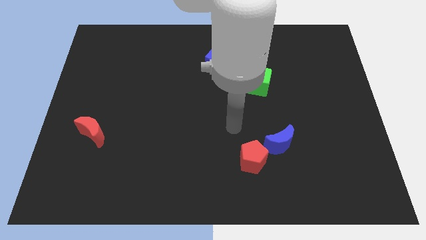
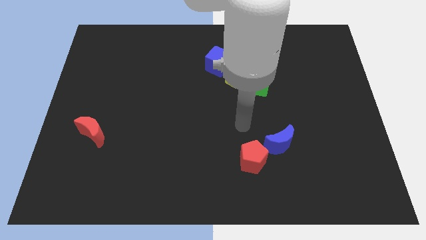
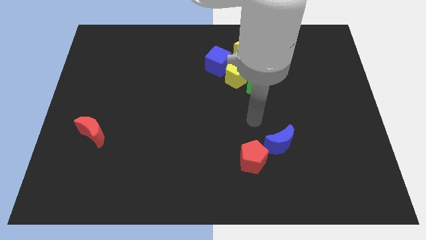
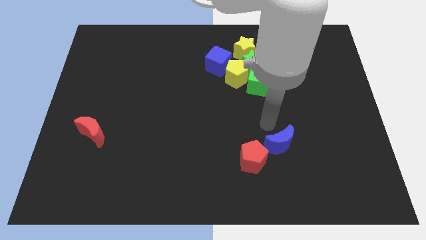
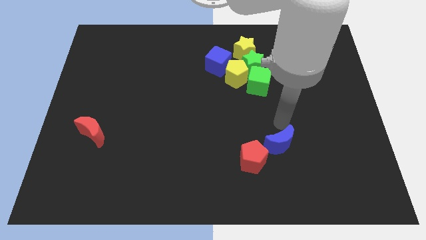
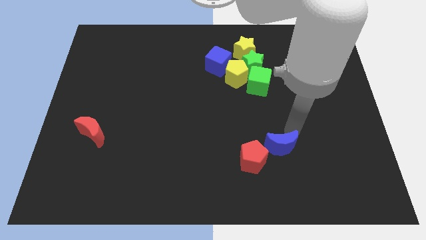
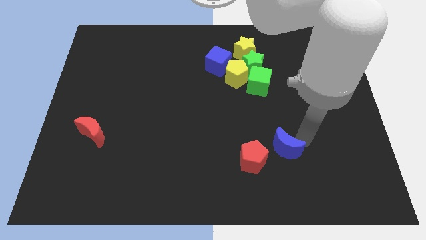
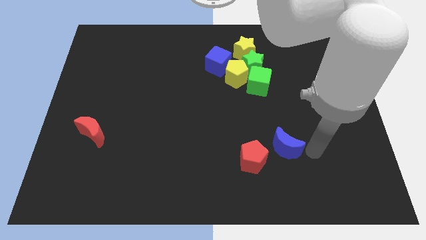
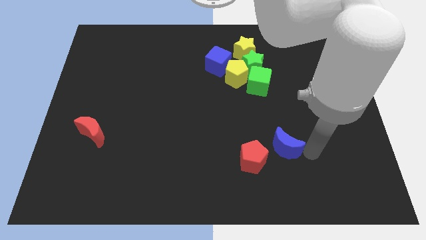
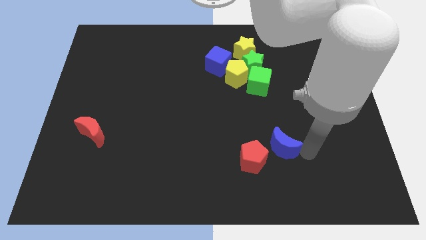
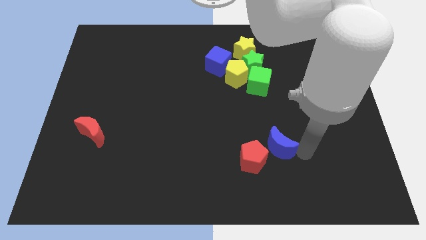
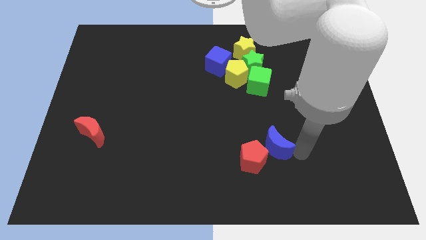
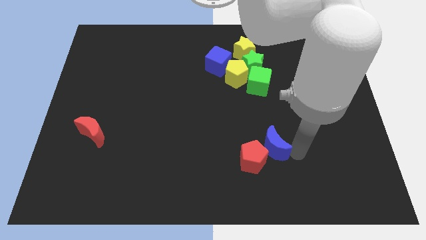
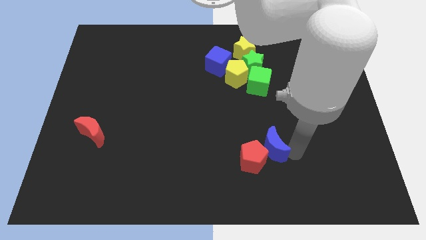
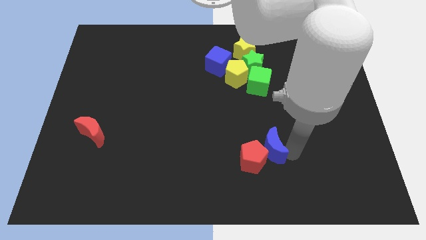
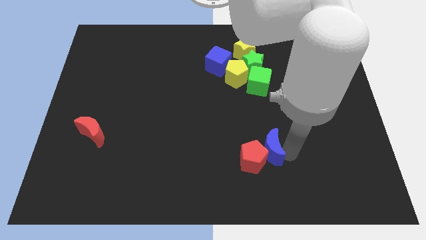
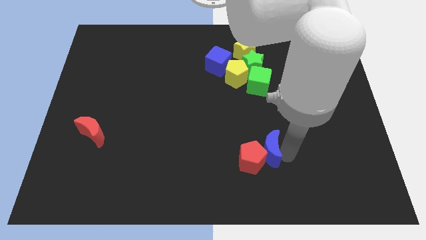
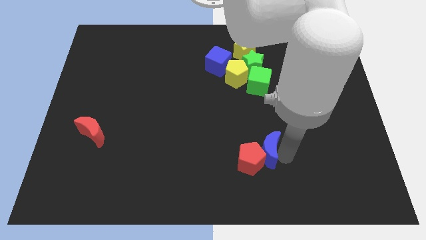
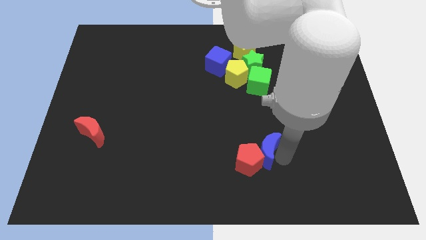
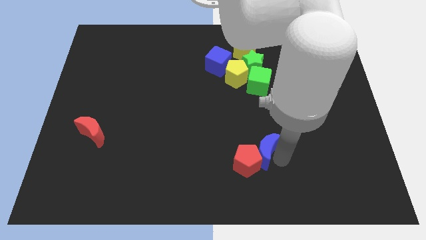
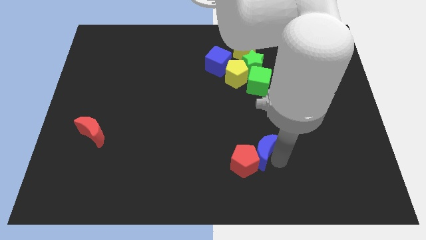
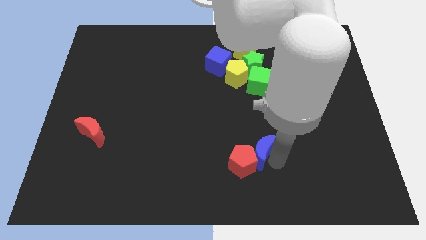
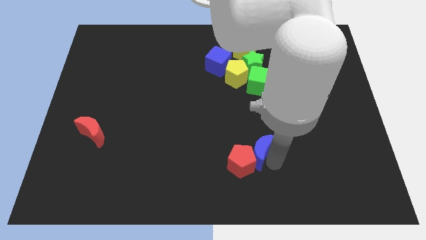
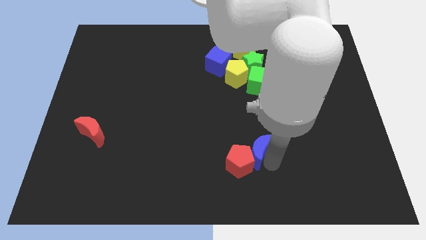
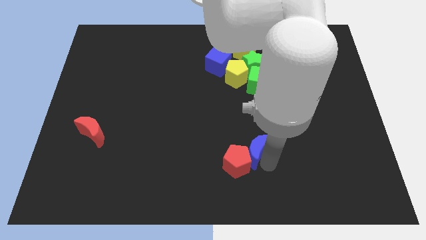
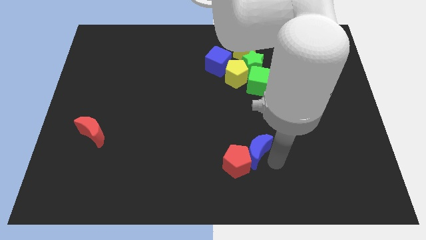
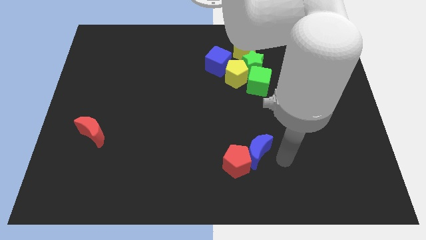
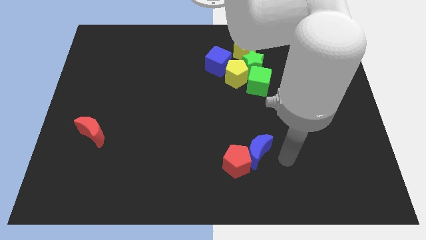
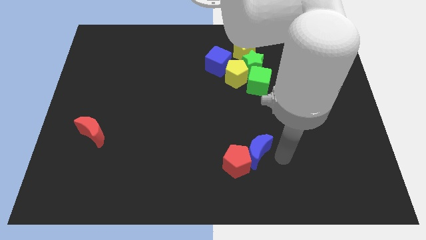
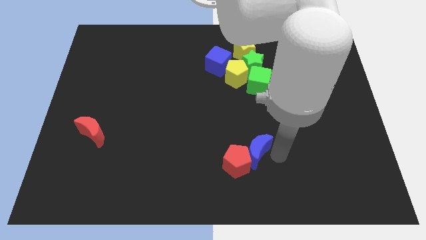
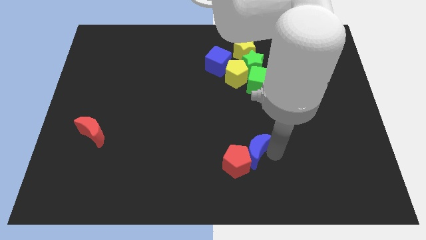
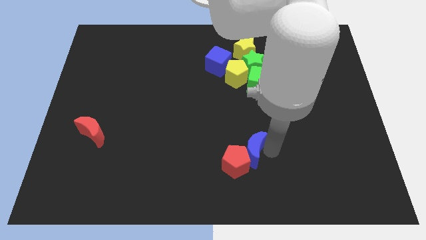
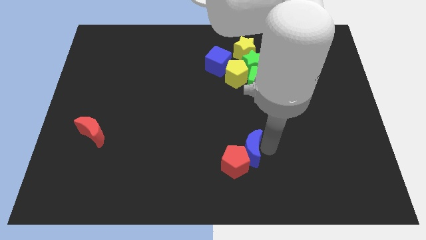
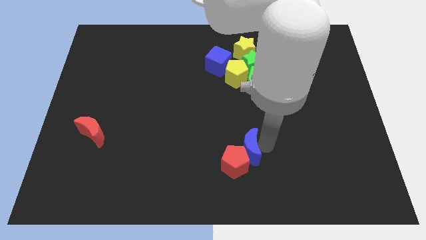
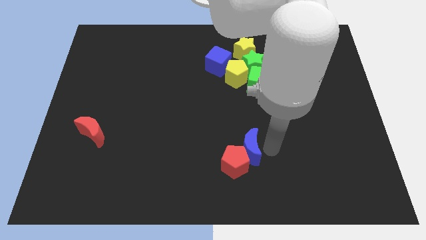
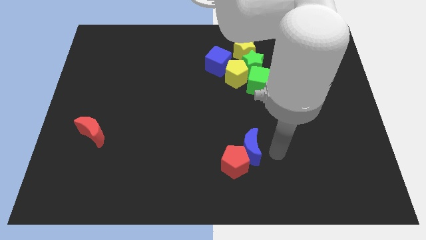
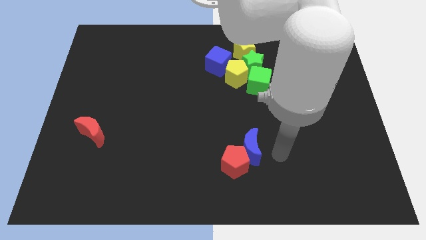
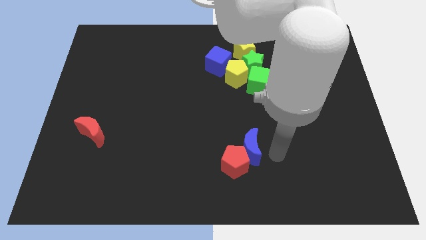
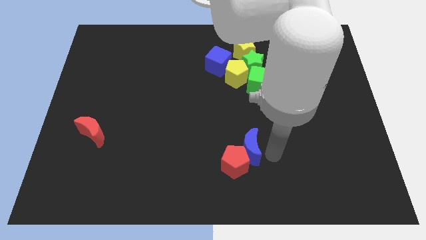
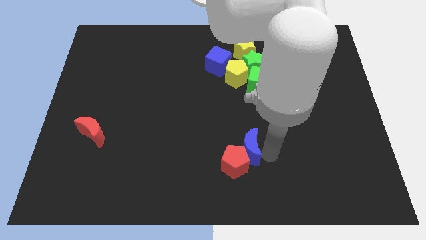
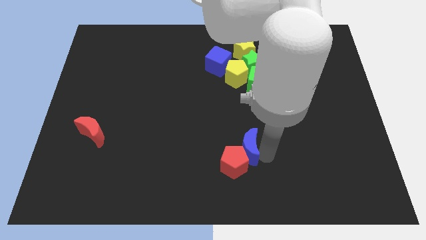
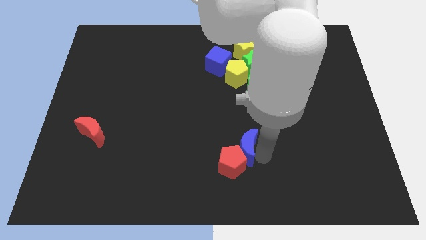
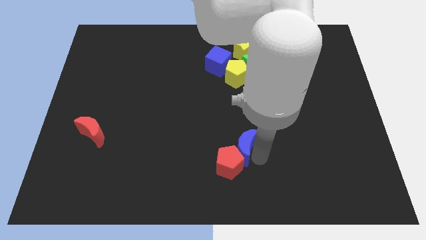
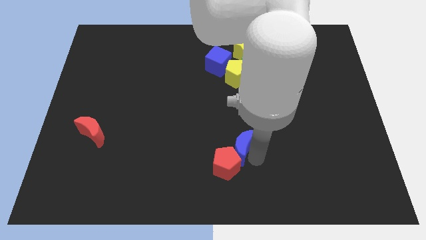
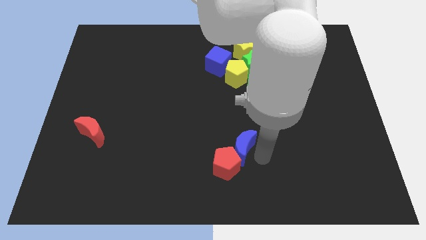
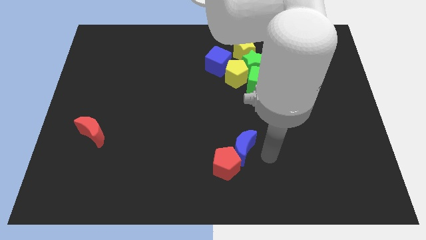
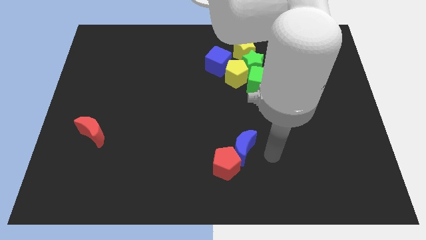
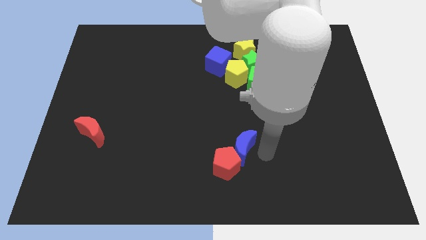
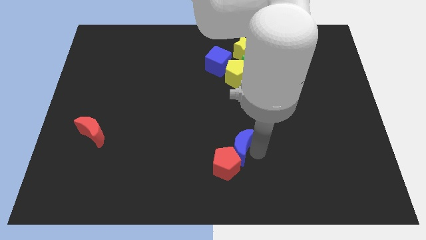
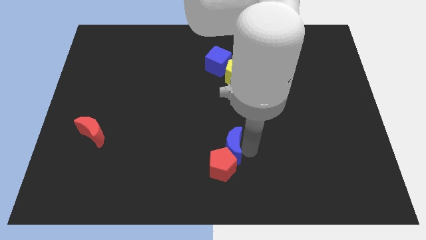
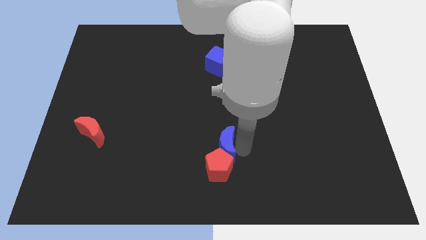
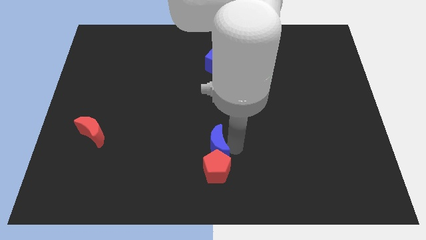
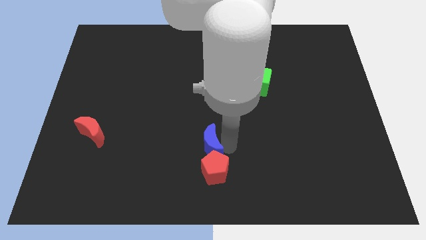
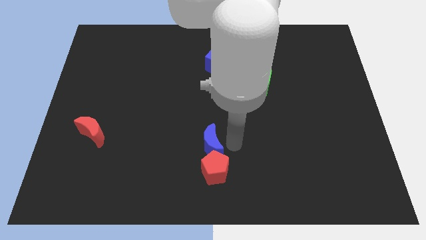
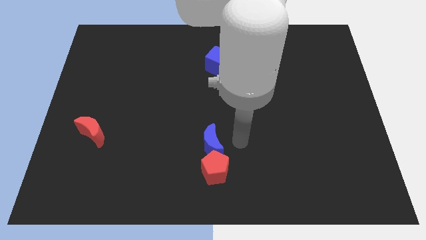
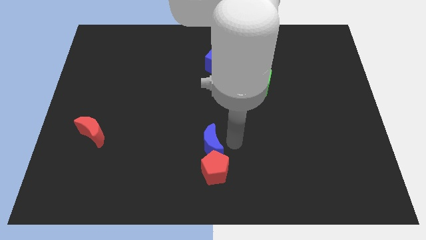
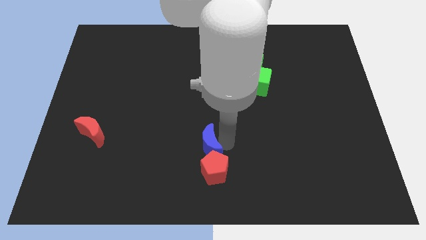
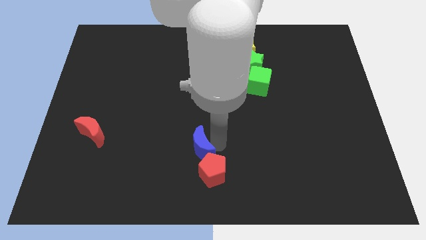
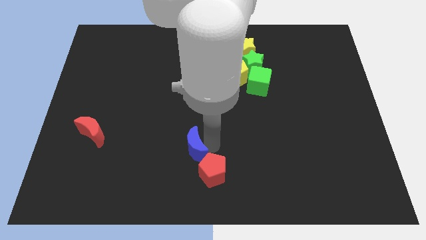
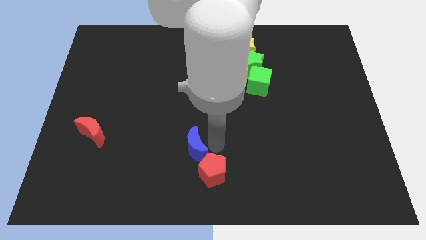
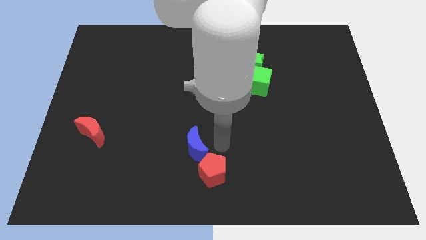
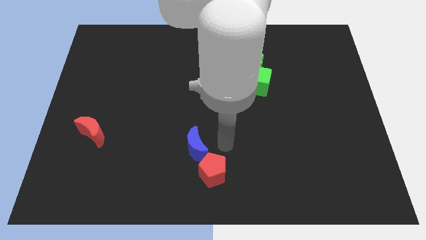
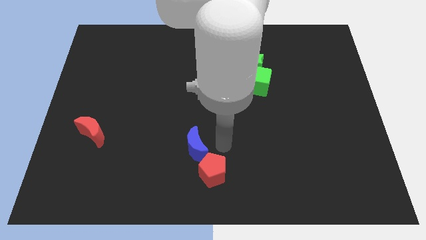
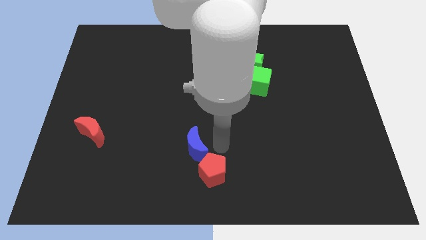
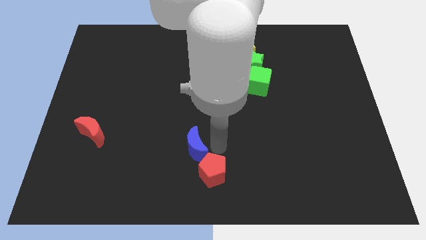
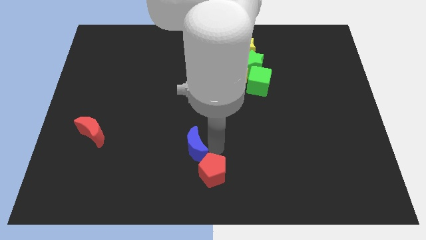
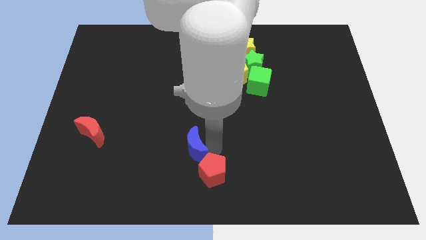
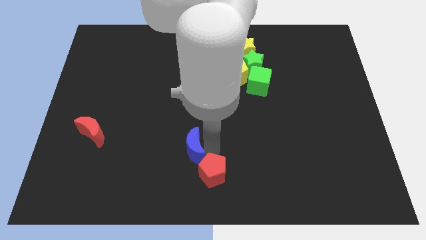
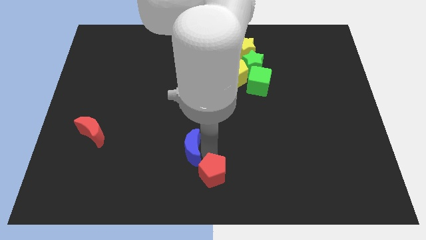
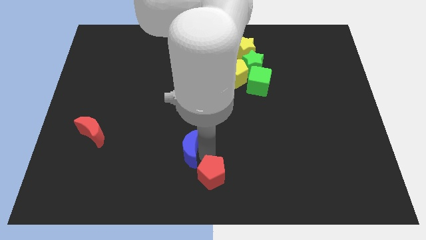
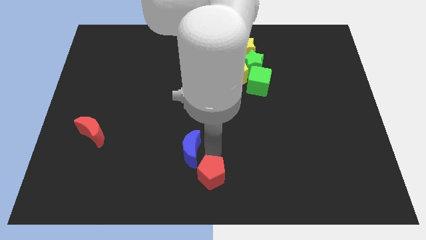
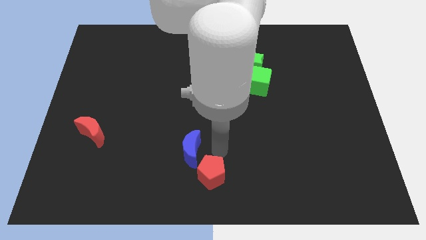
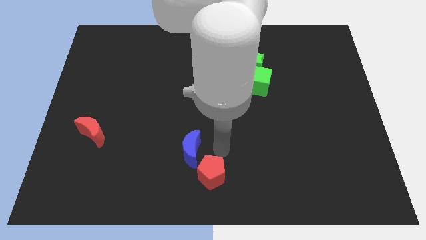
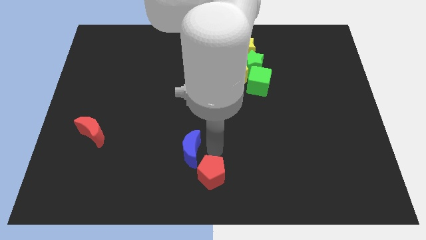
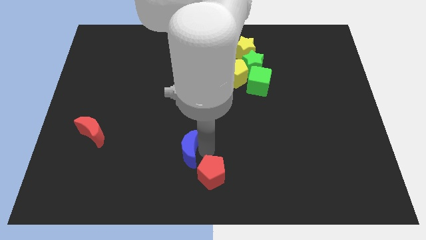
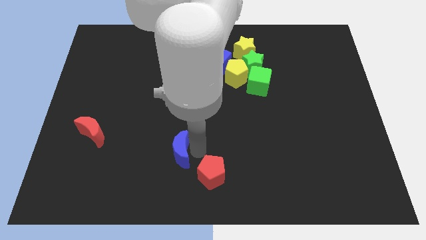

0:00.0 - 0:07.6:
push the blue moon left

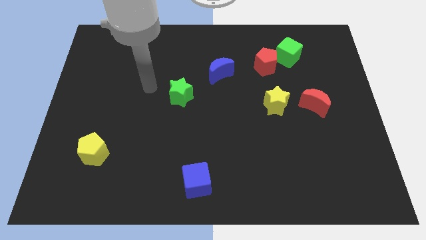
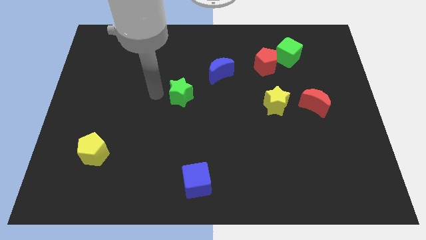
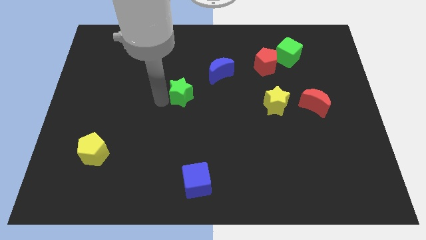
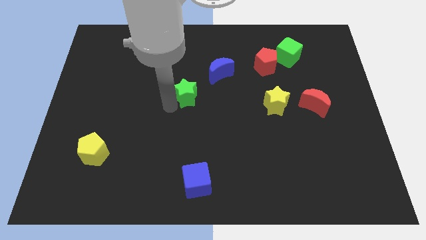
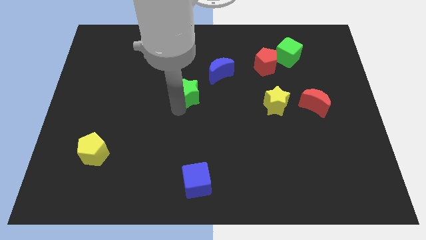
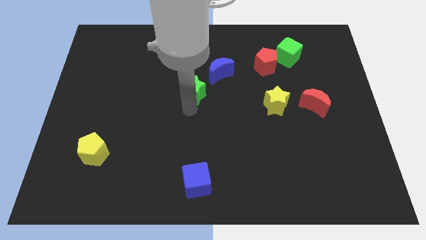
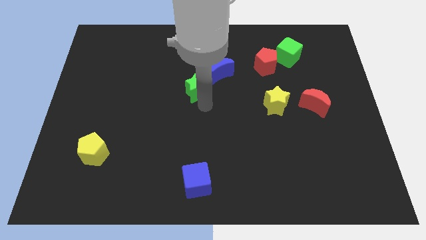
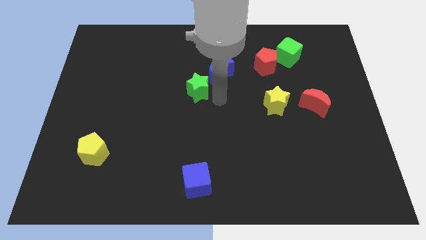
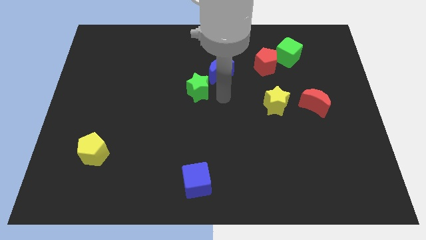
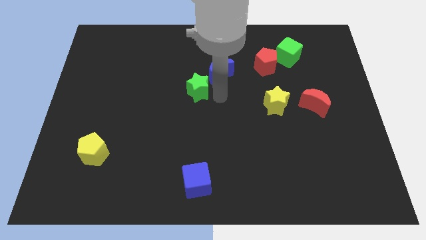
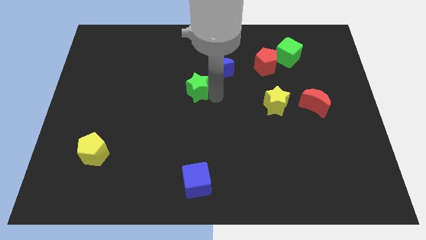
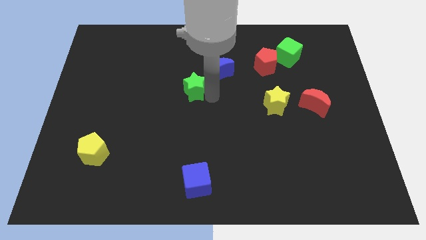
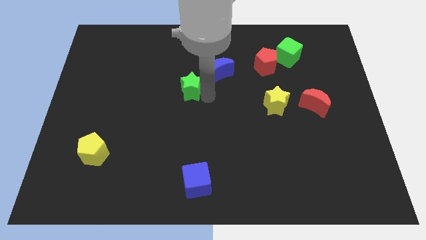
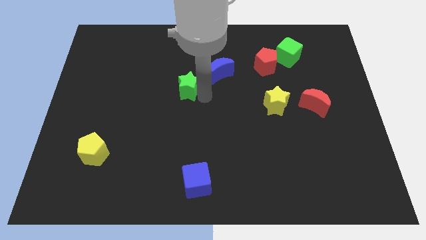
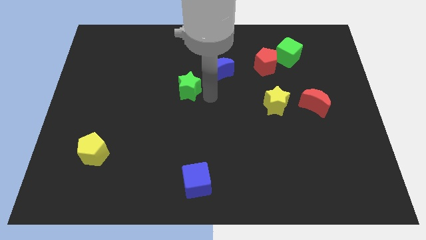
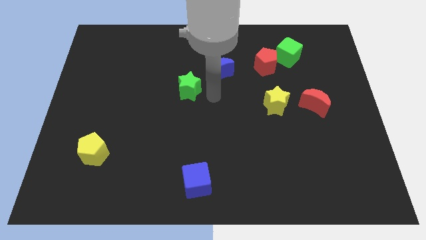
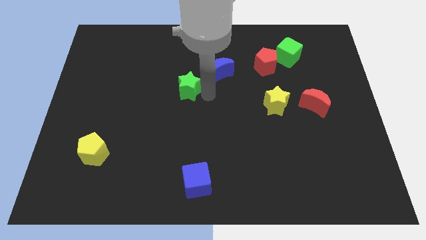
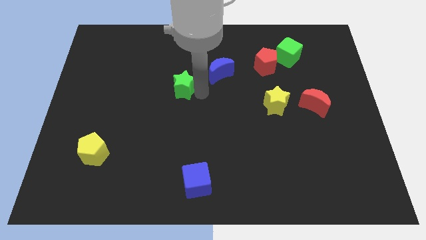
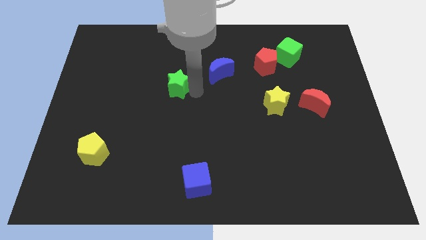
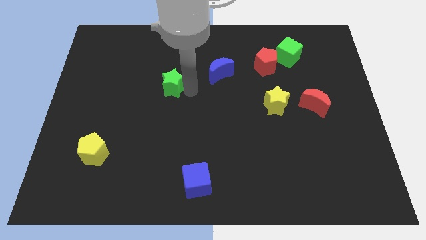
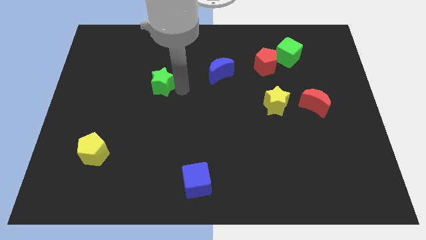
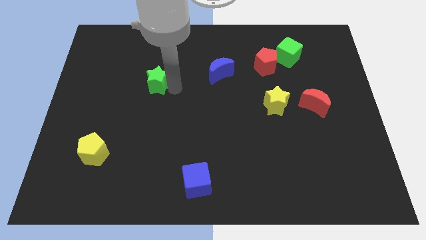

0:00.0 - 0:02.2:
push the green star a little bit upwards and then to the left
